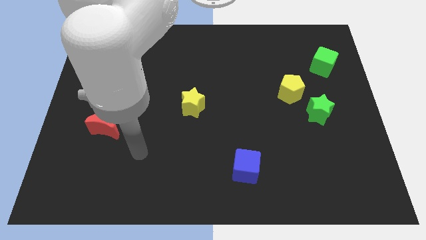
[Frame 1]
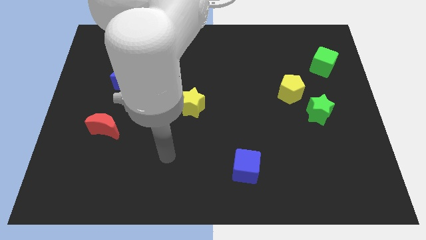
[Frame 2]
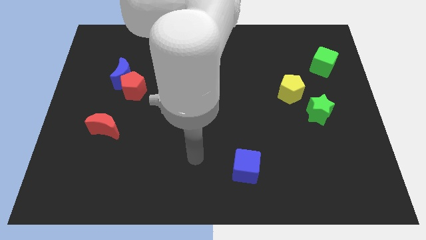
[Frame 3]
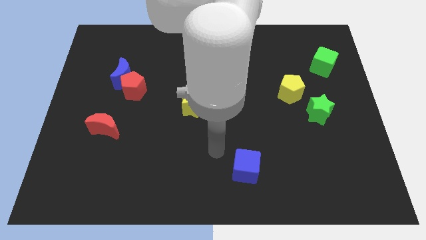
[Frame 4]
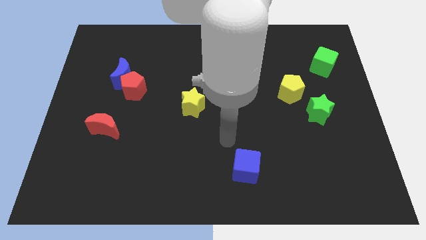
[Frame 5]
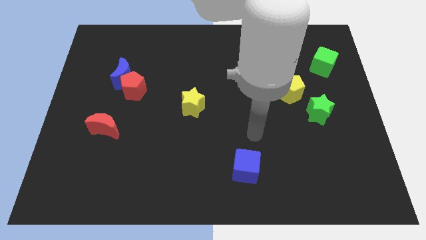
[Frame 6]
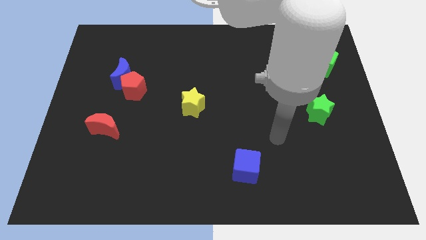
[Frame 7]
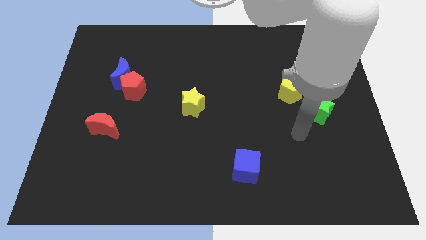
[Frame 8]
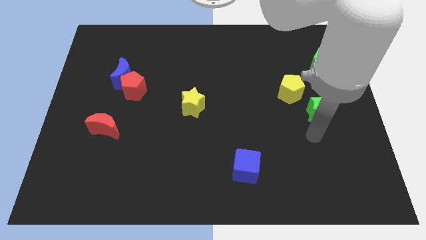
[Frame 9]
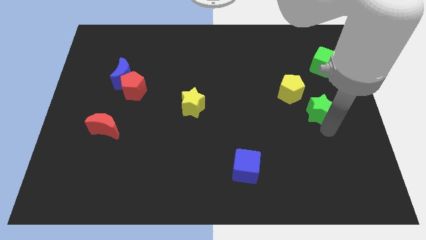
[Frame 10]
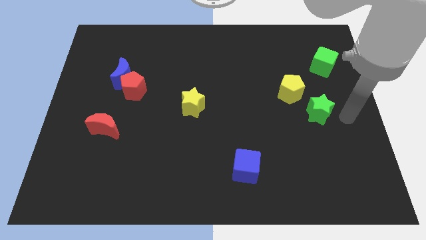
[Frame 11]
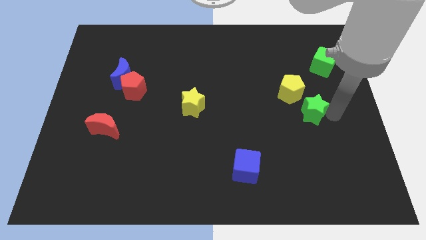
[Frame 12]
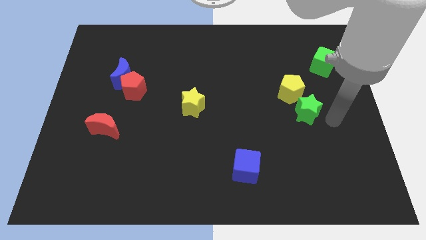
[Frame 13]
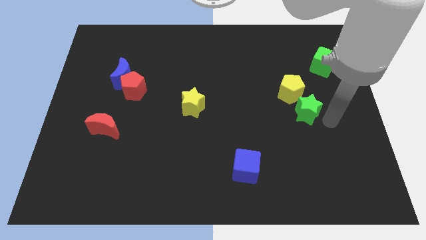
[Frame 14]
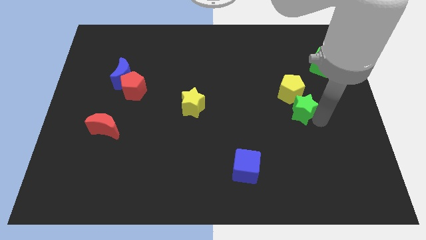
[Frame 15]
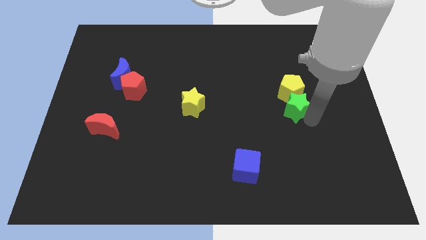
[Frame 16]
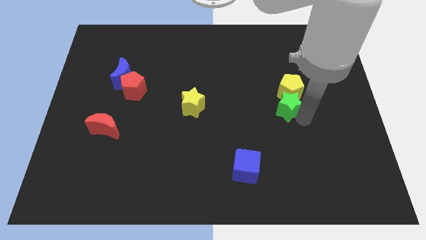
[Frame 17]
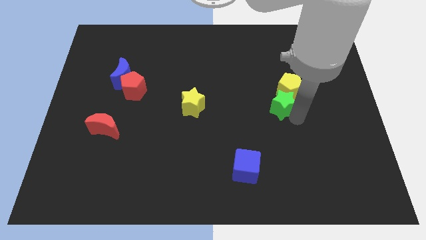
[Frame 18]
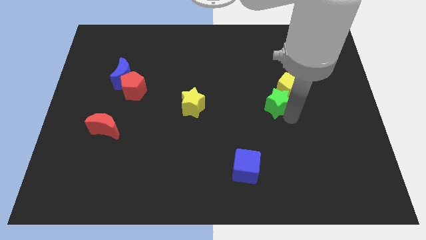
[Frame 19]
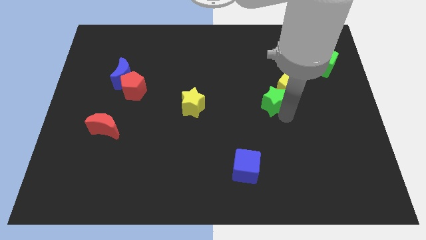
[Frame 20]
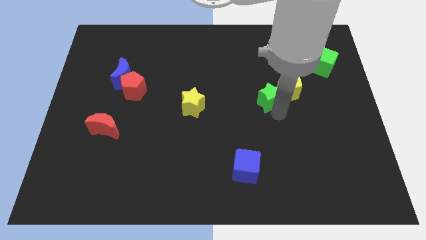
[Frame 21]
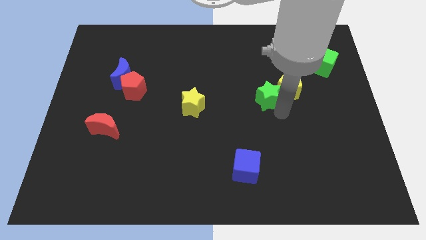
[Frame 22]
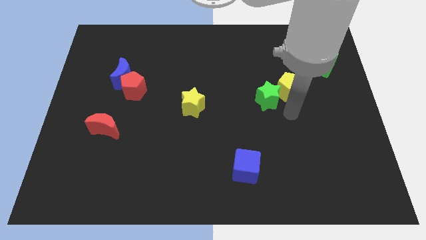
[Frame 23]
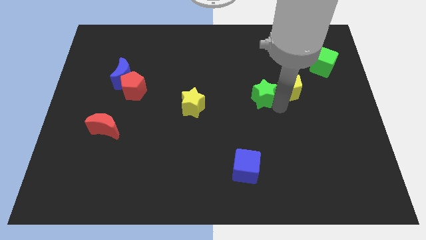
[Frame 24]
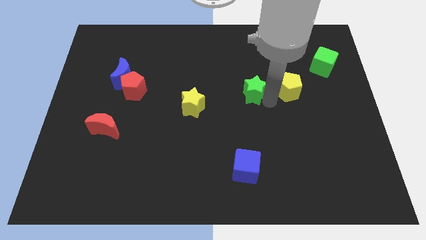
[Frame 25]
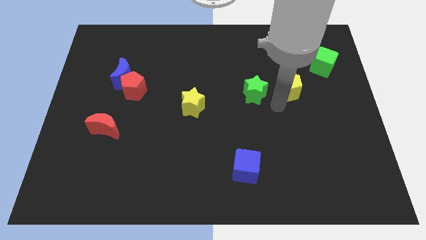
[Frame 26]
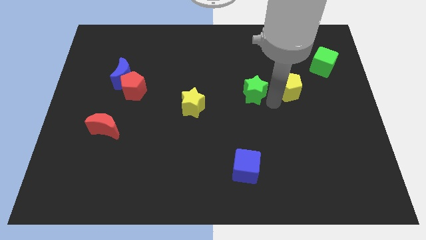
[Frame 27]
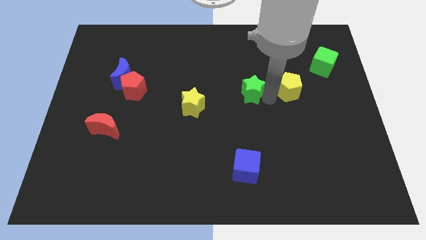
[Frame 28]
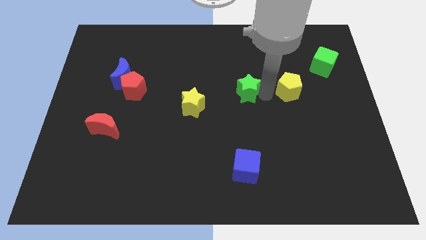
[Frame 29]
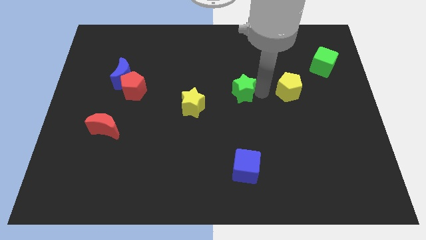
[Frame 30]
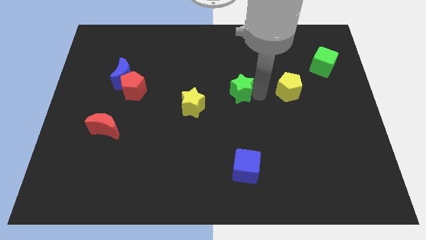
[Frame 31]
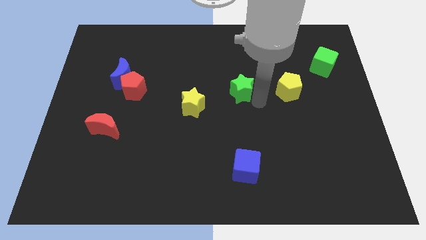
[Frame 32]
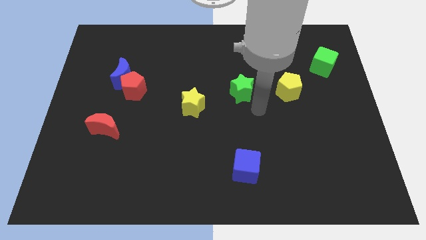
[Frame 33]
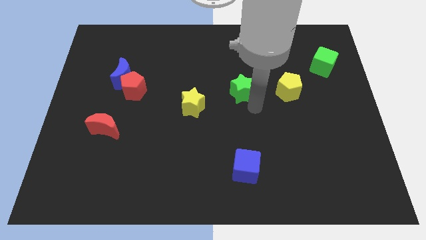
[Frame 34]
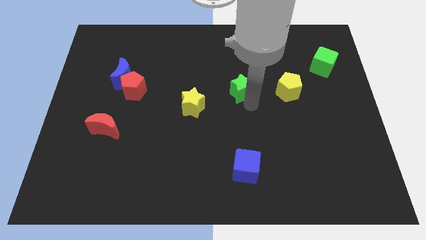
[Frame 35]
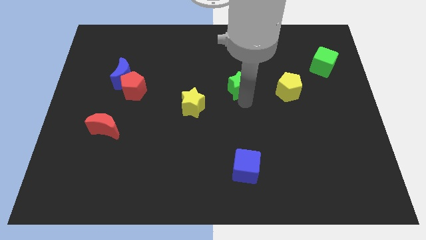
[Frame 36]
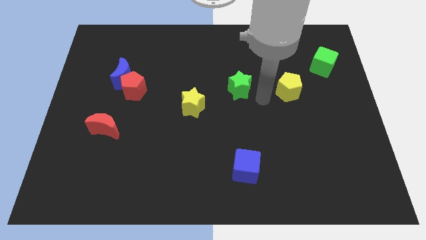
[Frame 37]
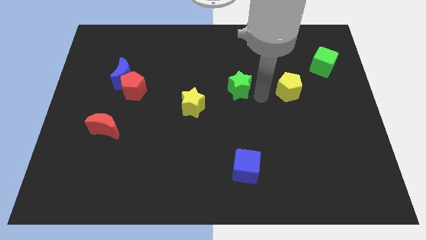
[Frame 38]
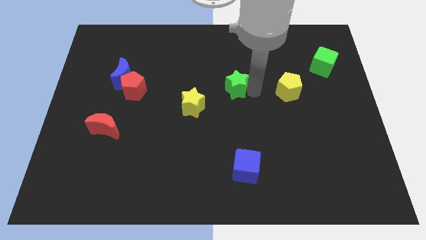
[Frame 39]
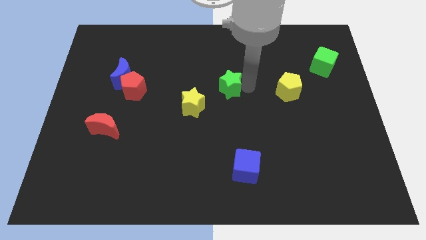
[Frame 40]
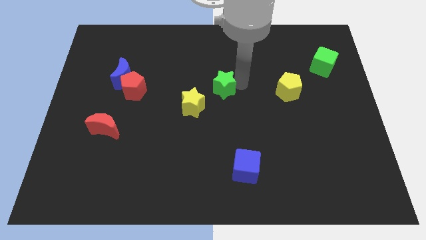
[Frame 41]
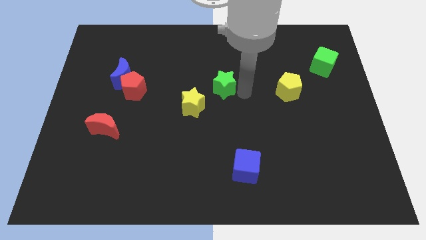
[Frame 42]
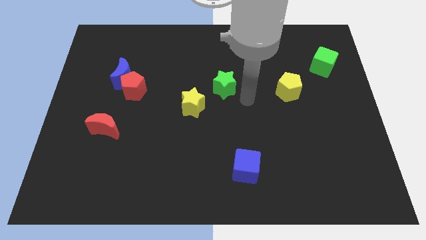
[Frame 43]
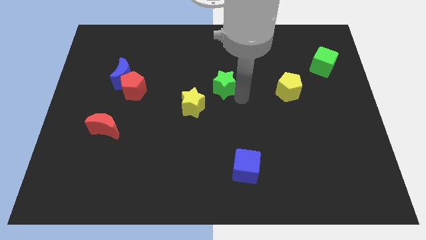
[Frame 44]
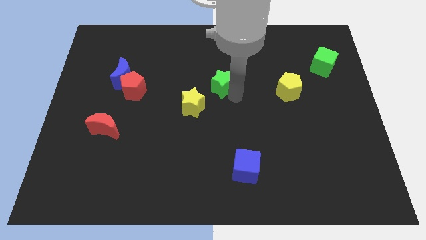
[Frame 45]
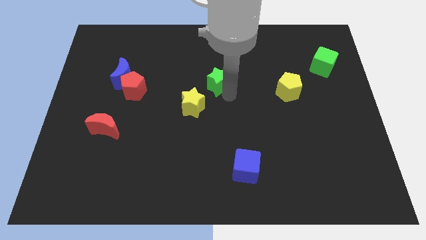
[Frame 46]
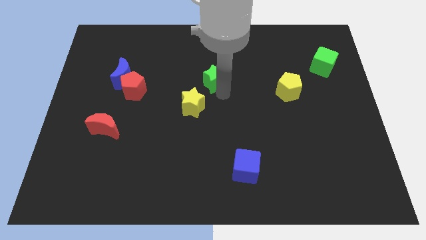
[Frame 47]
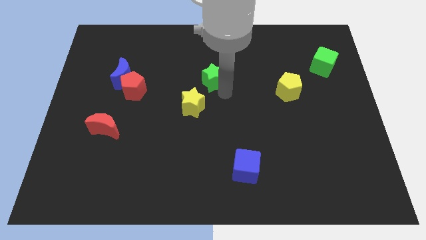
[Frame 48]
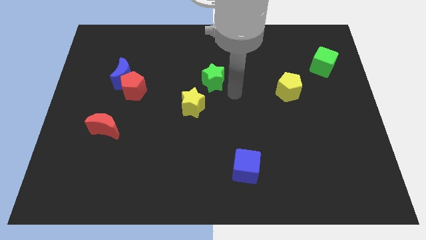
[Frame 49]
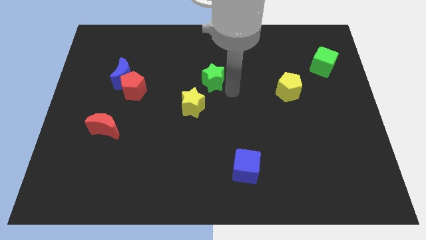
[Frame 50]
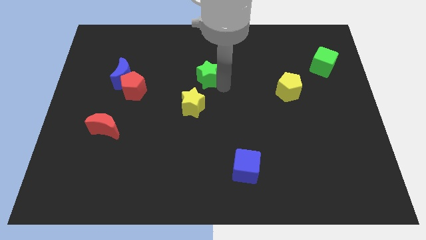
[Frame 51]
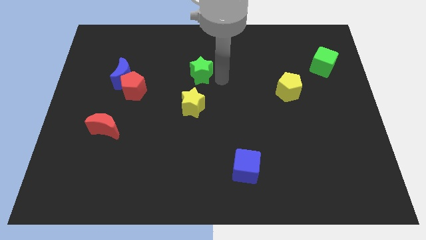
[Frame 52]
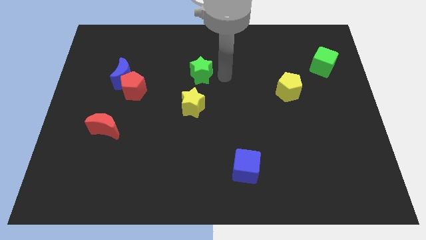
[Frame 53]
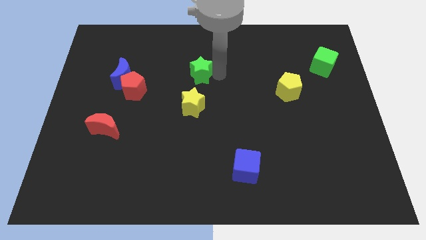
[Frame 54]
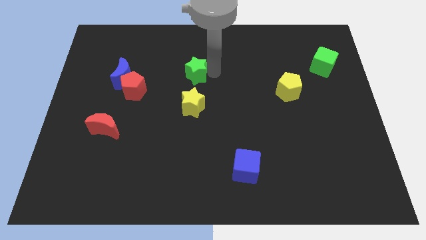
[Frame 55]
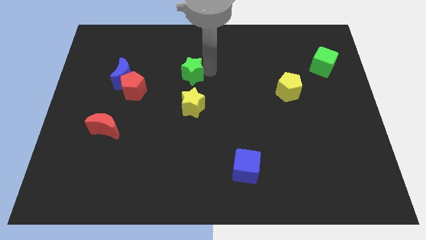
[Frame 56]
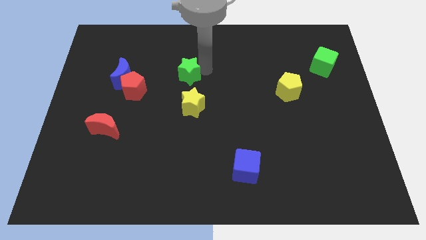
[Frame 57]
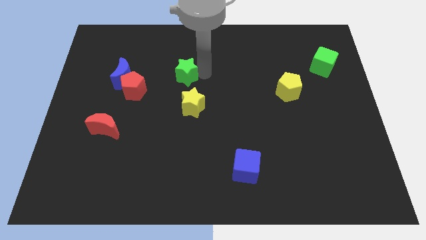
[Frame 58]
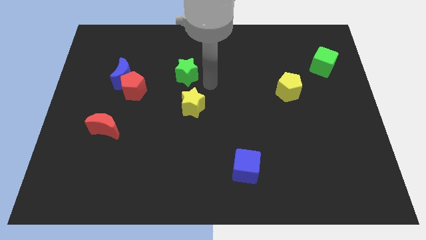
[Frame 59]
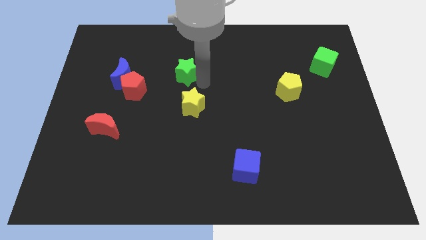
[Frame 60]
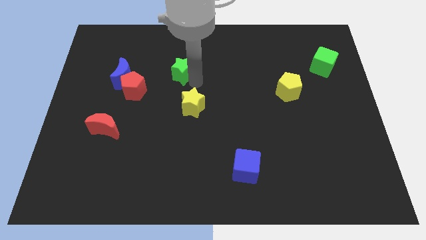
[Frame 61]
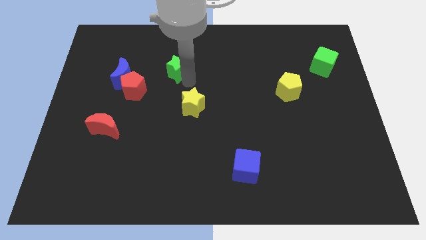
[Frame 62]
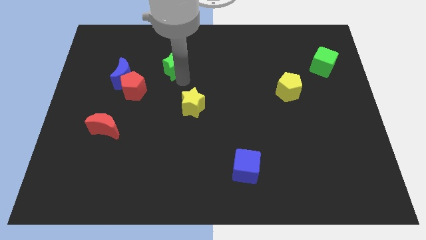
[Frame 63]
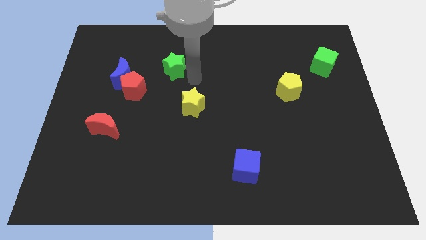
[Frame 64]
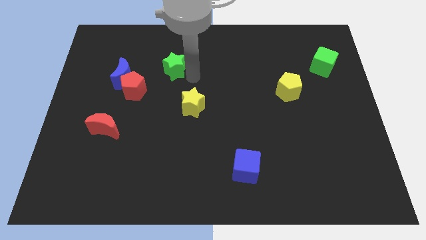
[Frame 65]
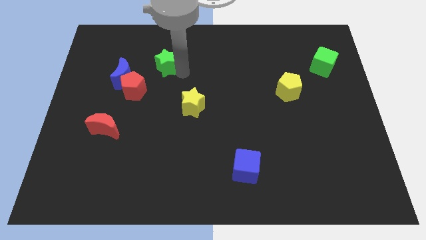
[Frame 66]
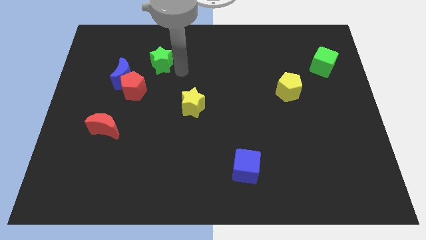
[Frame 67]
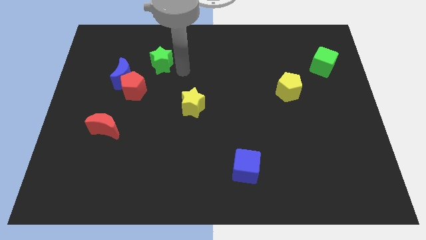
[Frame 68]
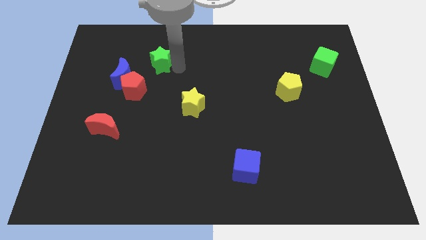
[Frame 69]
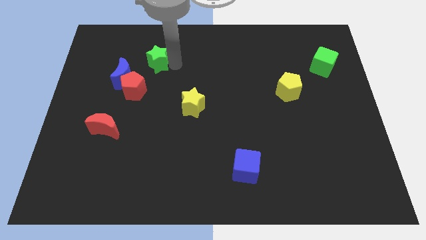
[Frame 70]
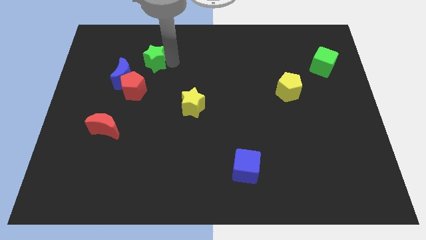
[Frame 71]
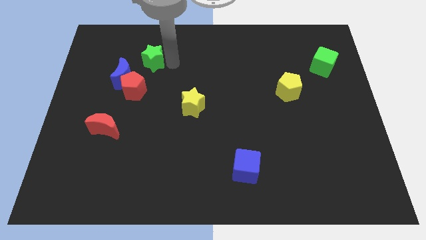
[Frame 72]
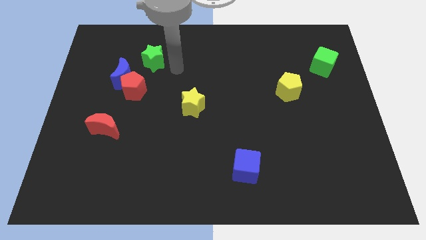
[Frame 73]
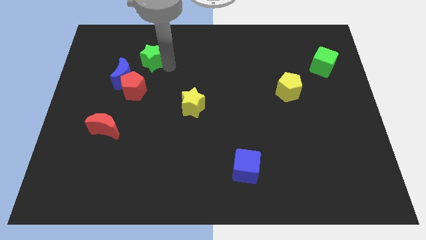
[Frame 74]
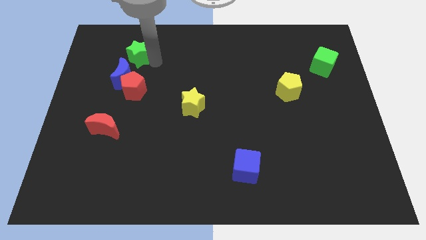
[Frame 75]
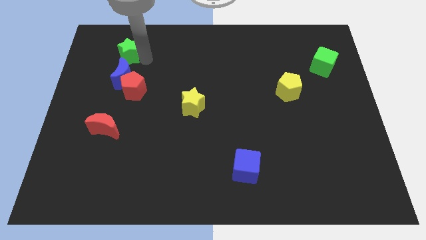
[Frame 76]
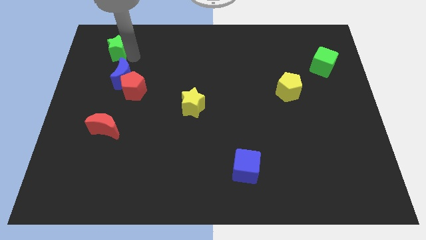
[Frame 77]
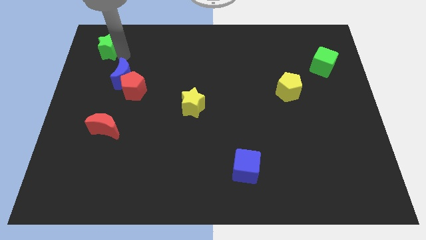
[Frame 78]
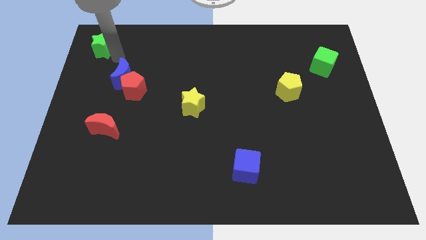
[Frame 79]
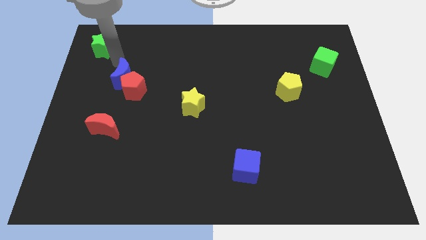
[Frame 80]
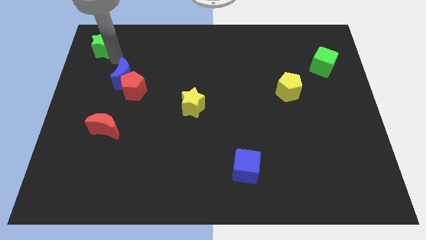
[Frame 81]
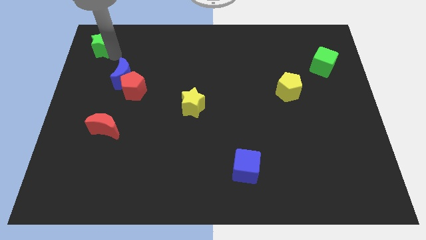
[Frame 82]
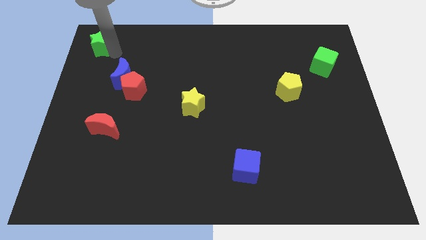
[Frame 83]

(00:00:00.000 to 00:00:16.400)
slide the green star to the upper left corner
